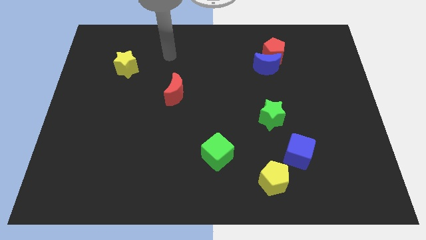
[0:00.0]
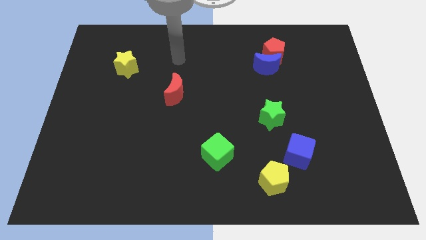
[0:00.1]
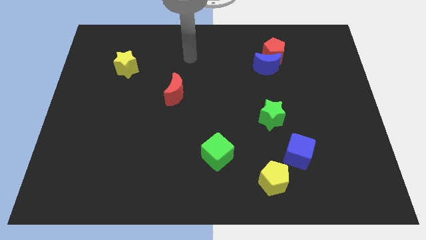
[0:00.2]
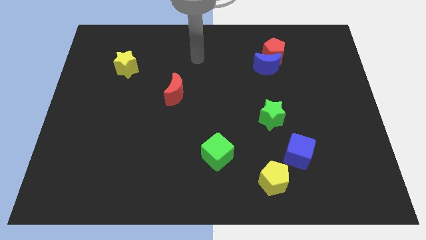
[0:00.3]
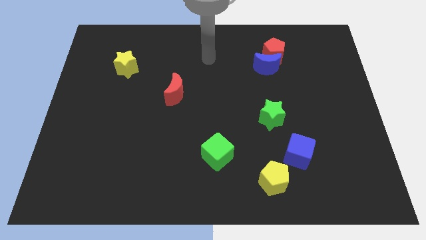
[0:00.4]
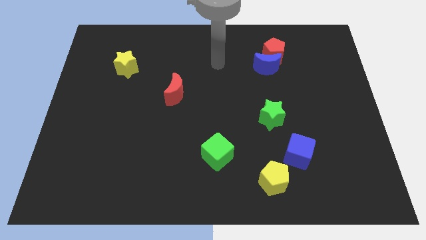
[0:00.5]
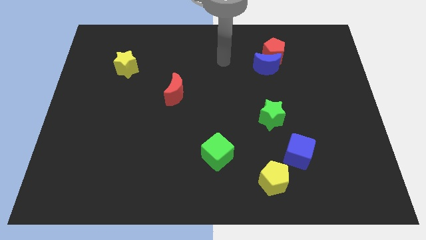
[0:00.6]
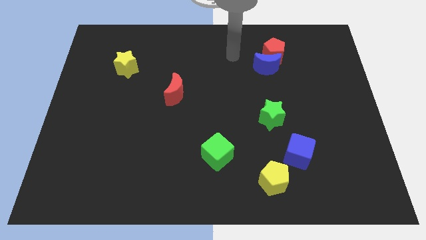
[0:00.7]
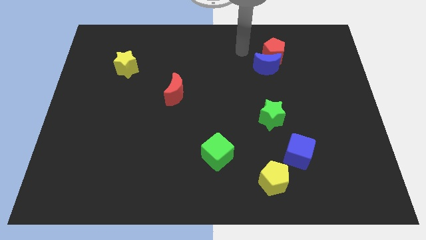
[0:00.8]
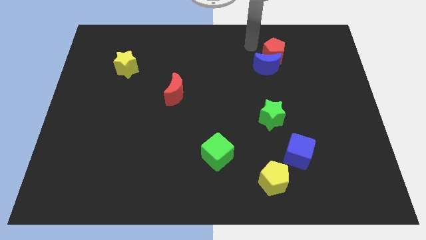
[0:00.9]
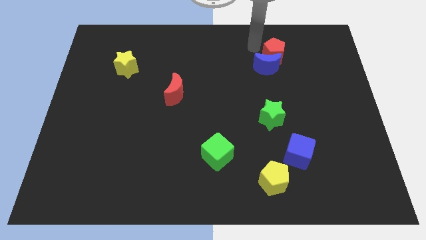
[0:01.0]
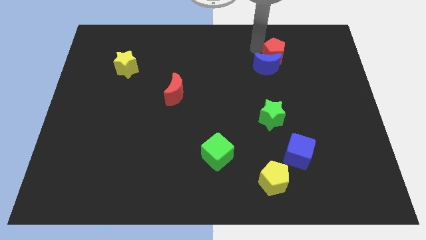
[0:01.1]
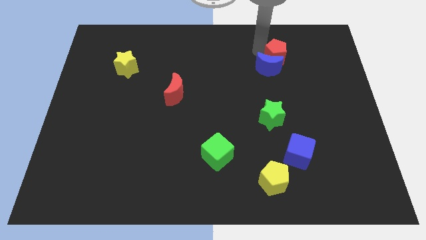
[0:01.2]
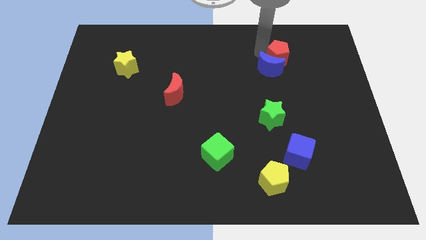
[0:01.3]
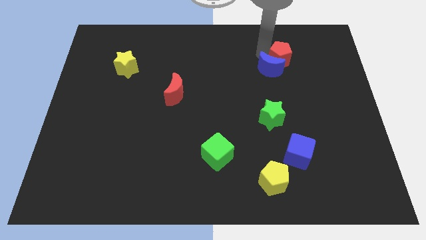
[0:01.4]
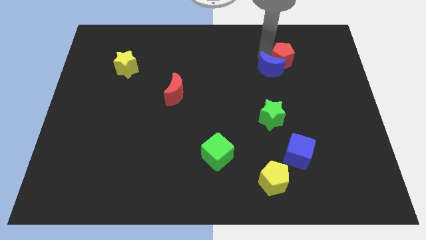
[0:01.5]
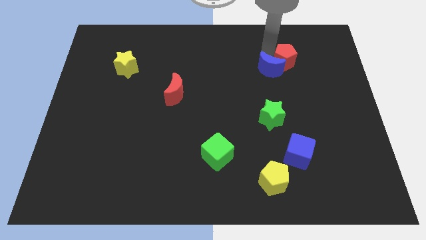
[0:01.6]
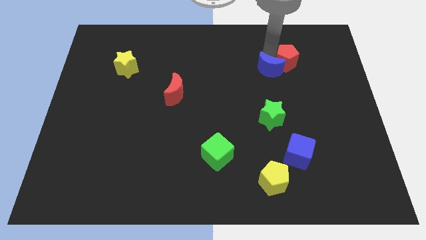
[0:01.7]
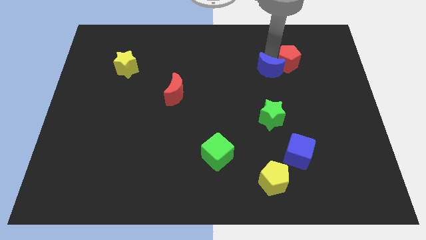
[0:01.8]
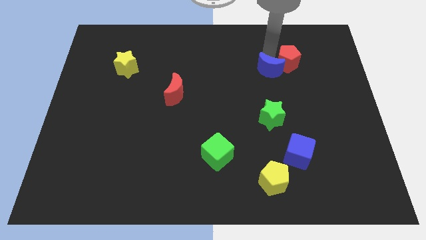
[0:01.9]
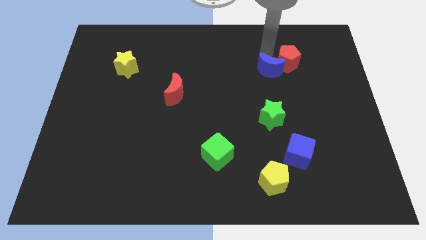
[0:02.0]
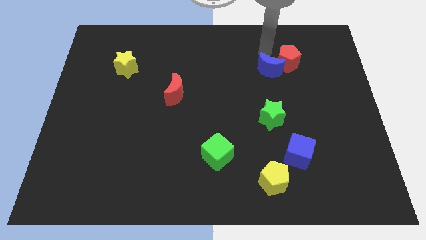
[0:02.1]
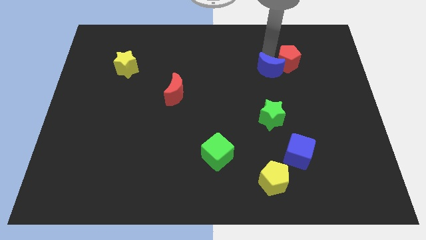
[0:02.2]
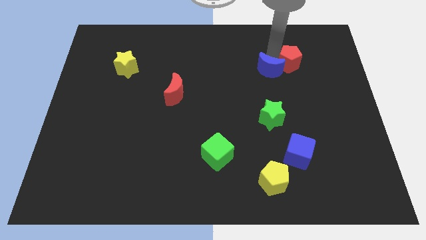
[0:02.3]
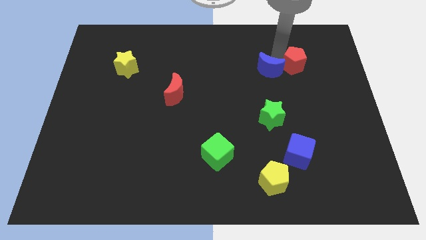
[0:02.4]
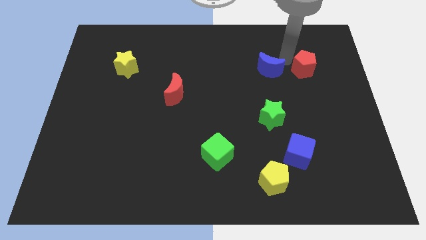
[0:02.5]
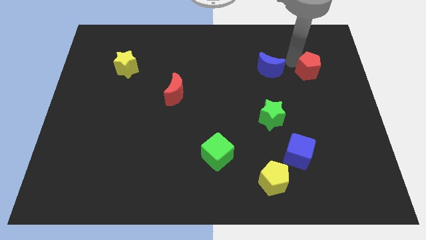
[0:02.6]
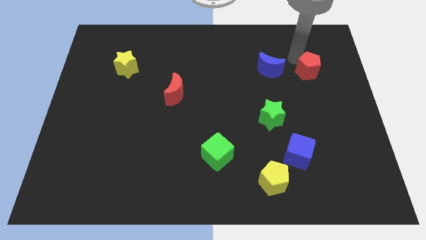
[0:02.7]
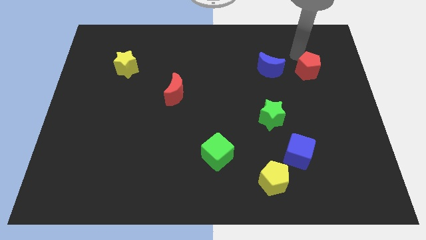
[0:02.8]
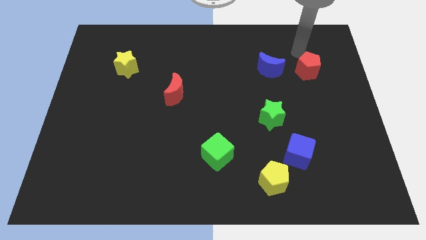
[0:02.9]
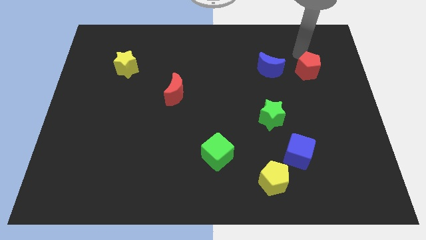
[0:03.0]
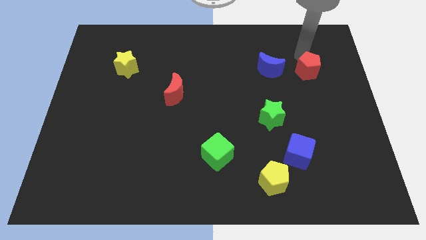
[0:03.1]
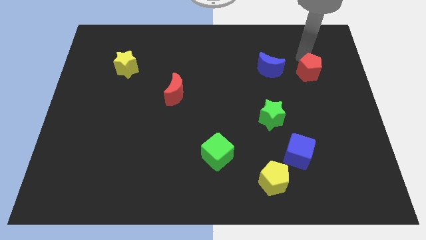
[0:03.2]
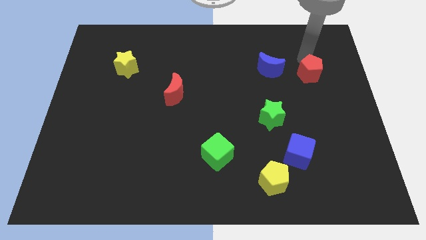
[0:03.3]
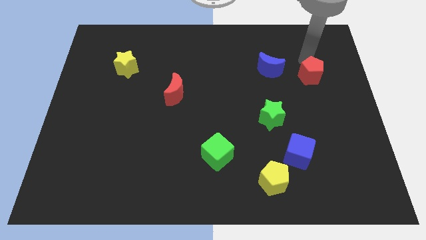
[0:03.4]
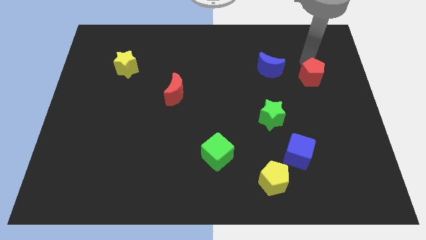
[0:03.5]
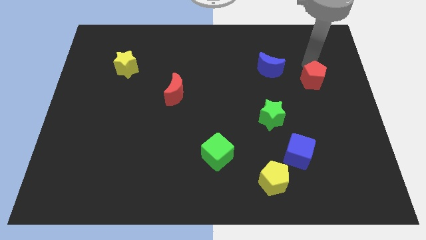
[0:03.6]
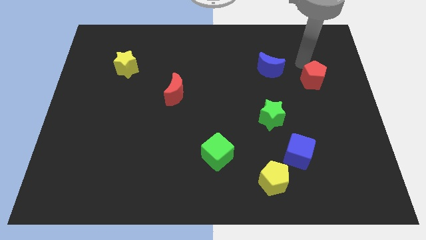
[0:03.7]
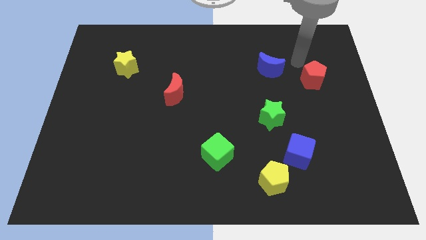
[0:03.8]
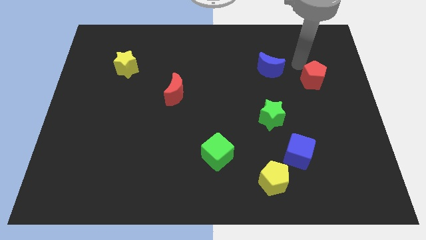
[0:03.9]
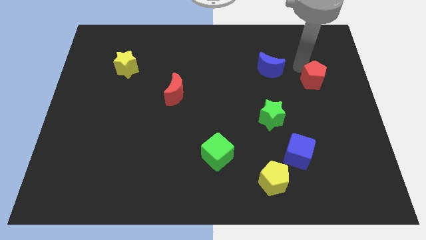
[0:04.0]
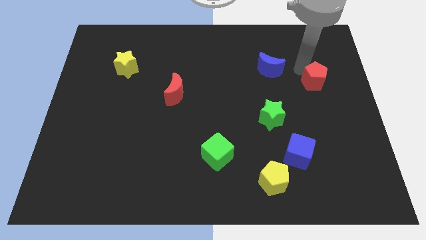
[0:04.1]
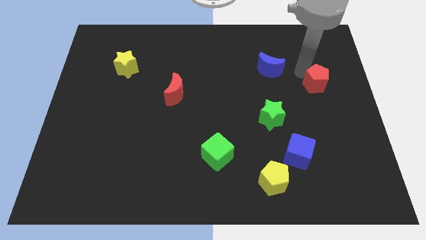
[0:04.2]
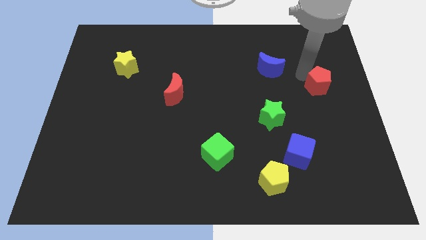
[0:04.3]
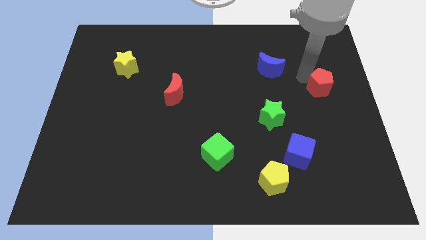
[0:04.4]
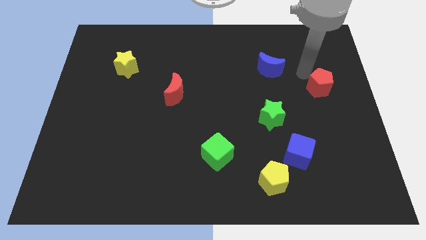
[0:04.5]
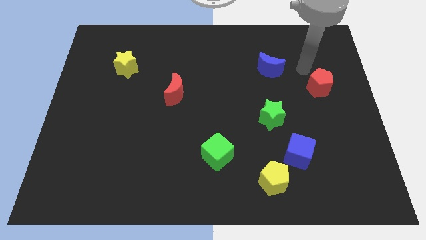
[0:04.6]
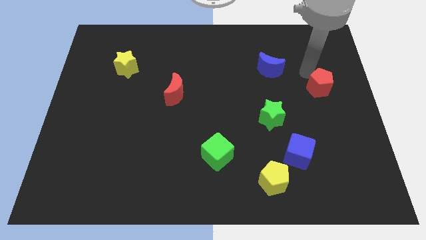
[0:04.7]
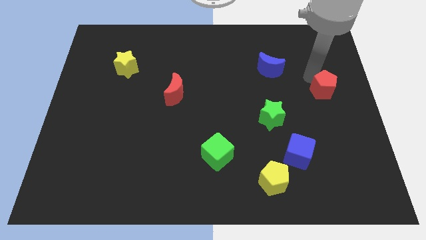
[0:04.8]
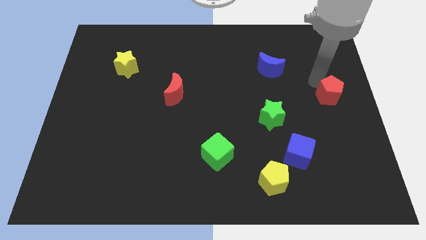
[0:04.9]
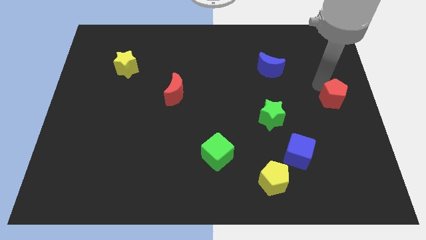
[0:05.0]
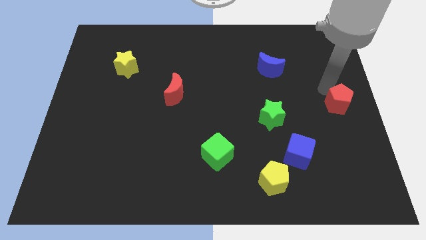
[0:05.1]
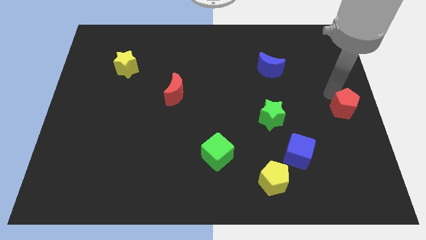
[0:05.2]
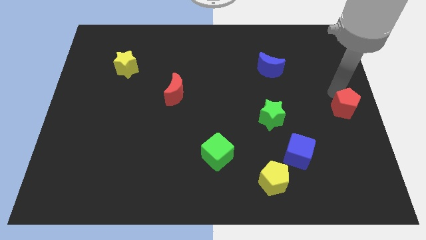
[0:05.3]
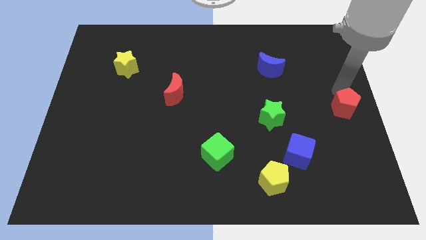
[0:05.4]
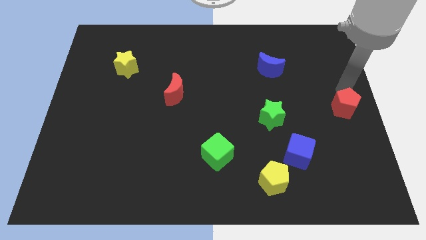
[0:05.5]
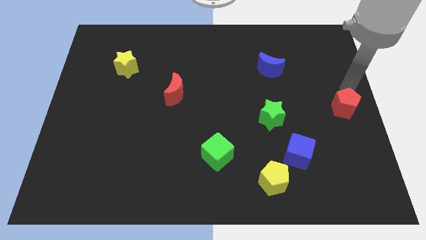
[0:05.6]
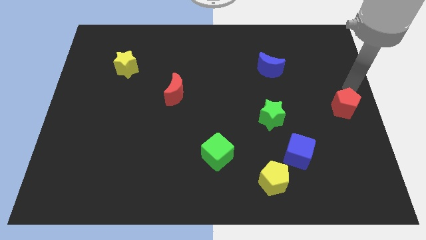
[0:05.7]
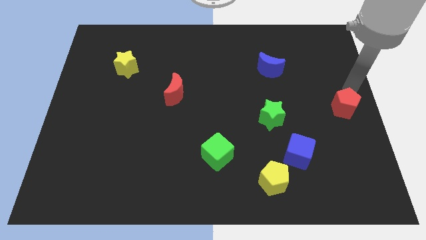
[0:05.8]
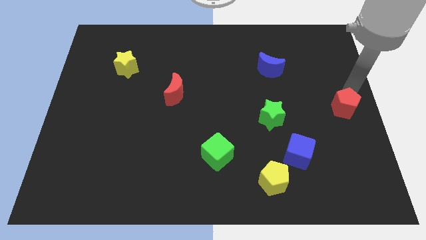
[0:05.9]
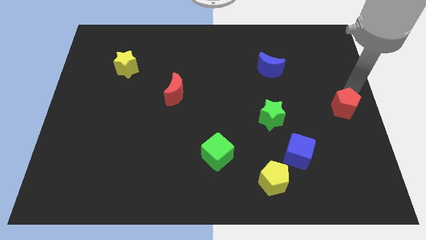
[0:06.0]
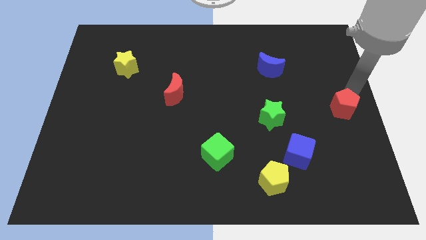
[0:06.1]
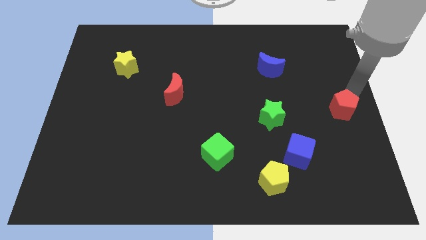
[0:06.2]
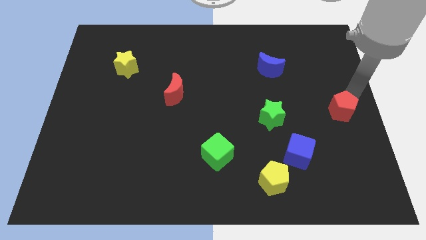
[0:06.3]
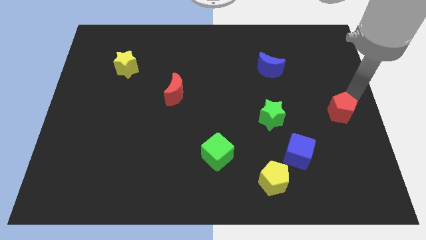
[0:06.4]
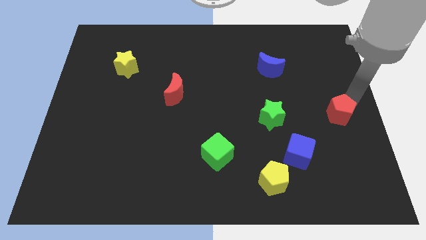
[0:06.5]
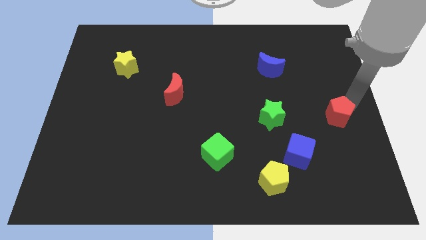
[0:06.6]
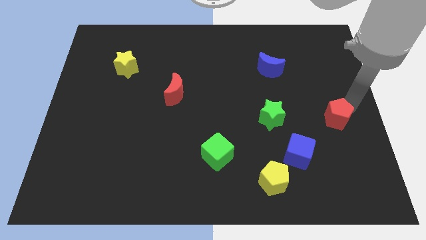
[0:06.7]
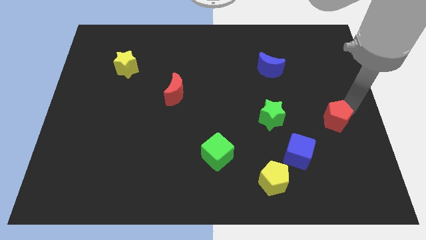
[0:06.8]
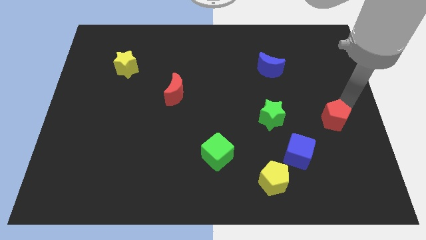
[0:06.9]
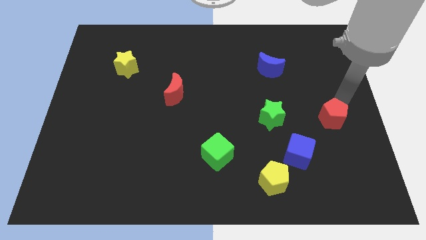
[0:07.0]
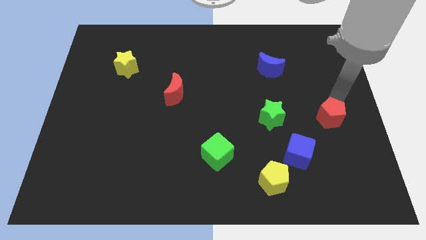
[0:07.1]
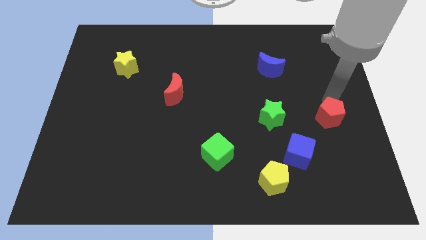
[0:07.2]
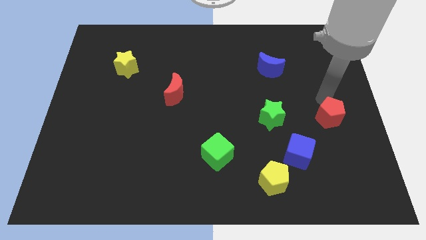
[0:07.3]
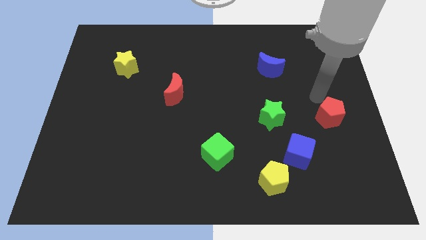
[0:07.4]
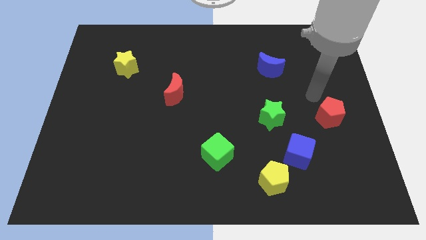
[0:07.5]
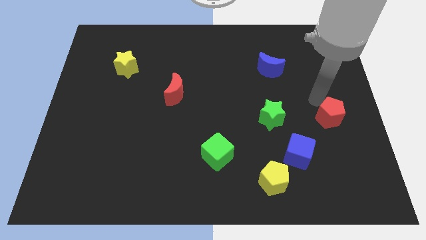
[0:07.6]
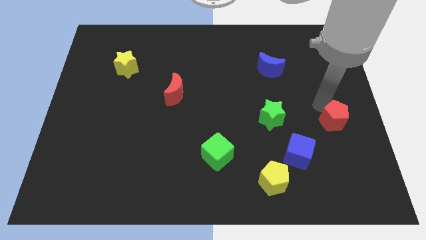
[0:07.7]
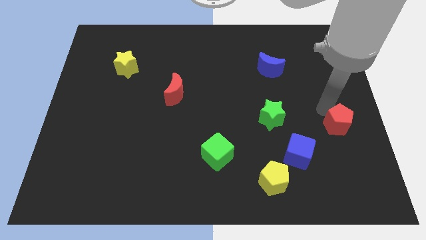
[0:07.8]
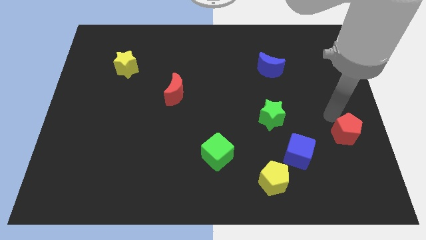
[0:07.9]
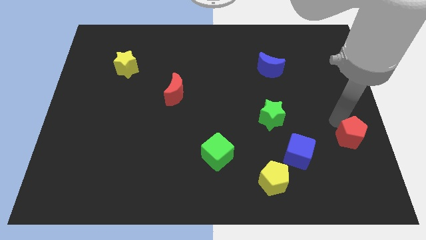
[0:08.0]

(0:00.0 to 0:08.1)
push the red pentagon just right of the blue cube
